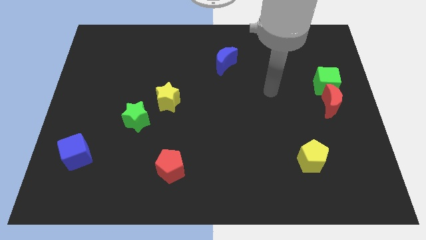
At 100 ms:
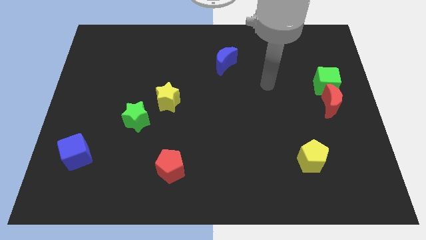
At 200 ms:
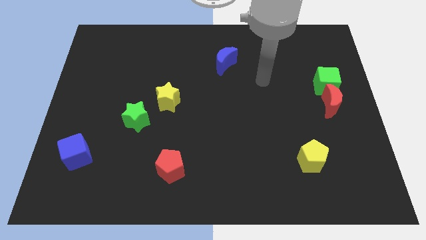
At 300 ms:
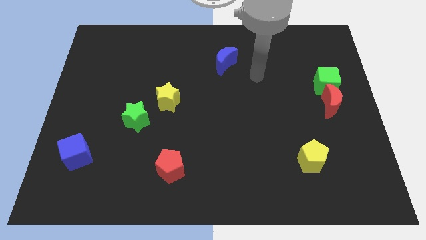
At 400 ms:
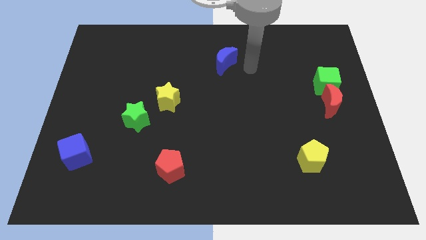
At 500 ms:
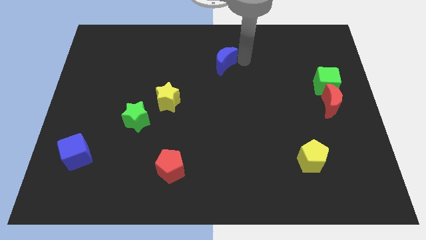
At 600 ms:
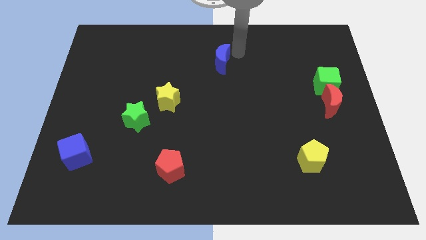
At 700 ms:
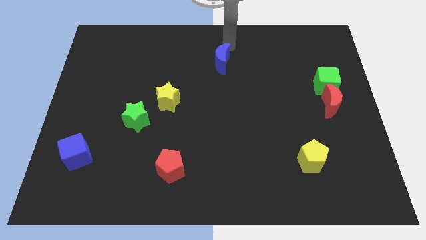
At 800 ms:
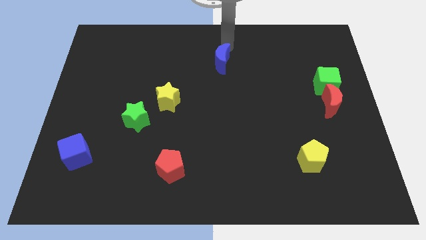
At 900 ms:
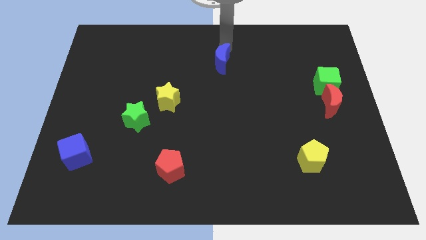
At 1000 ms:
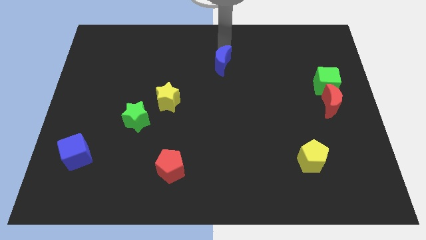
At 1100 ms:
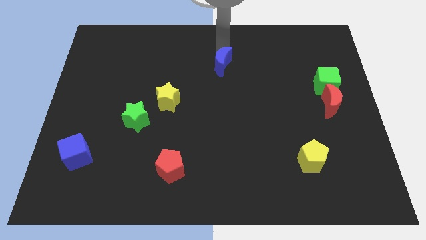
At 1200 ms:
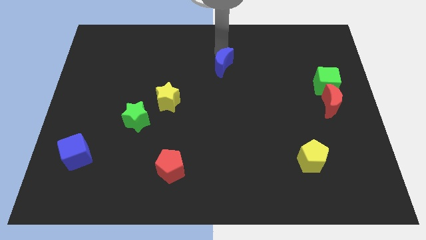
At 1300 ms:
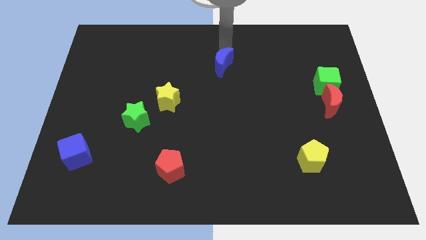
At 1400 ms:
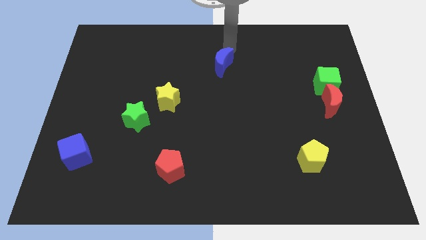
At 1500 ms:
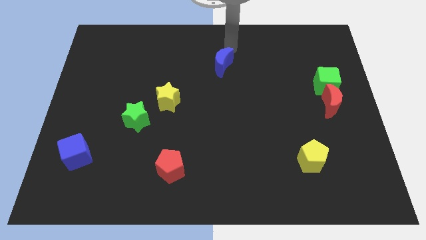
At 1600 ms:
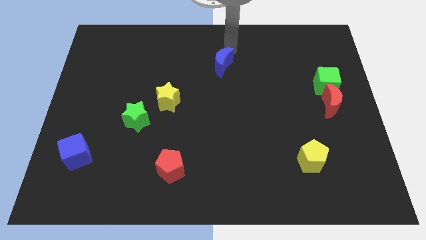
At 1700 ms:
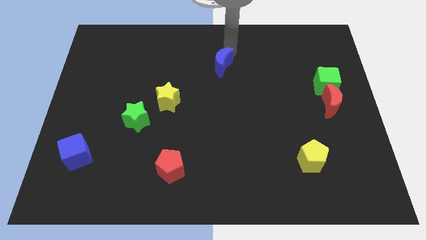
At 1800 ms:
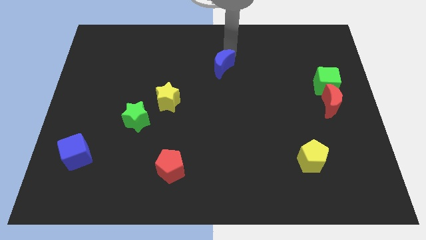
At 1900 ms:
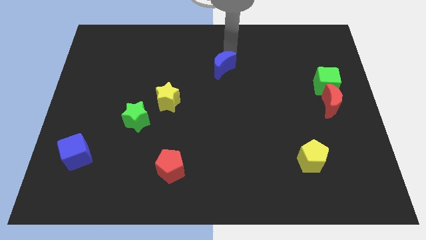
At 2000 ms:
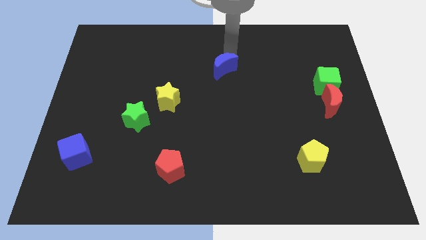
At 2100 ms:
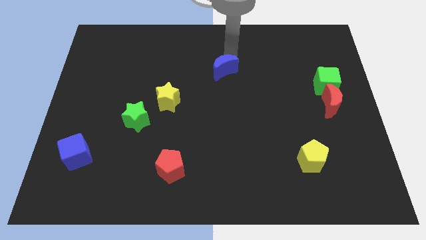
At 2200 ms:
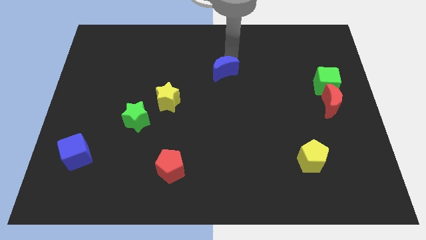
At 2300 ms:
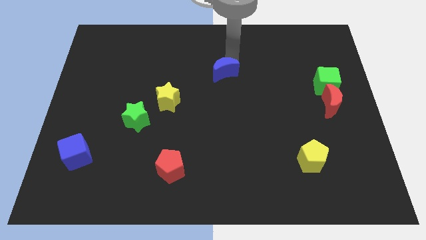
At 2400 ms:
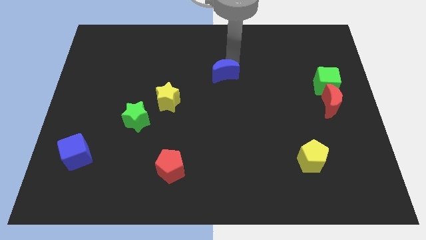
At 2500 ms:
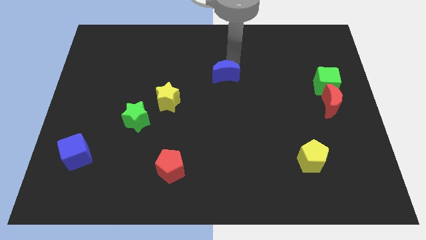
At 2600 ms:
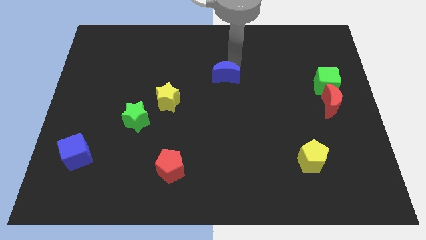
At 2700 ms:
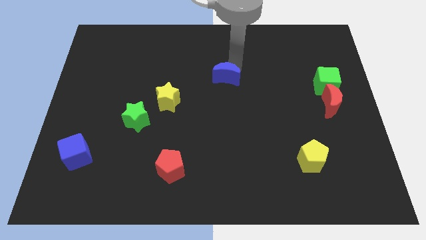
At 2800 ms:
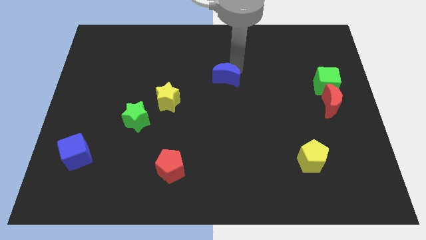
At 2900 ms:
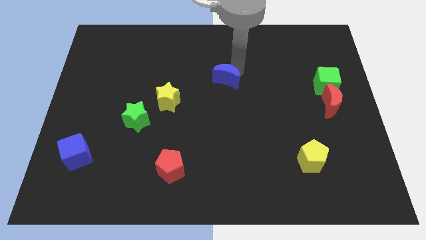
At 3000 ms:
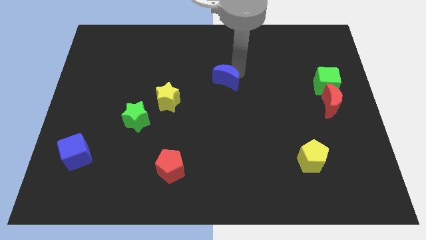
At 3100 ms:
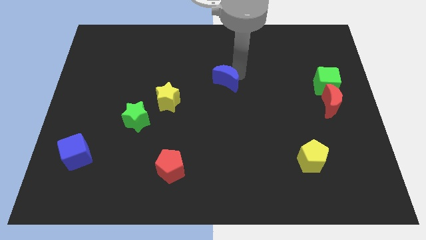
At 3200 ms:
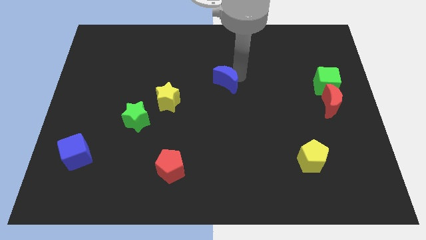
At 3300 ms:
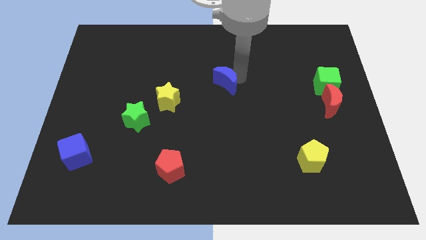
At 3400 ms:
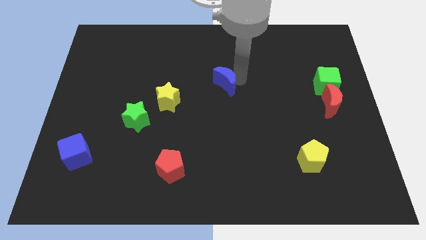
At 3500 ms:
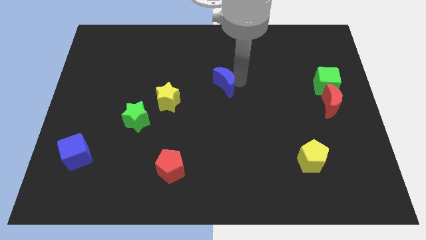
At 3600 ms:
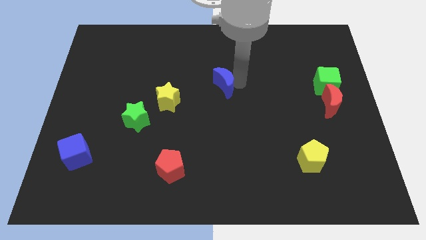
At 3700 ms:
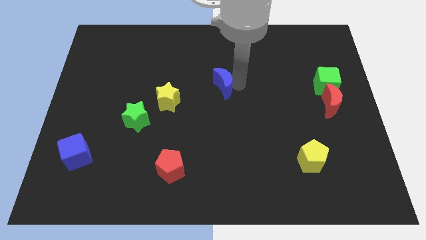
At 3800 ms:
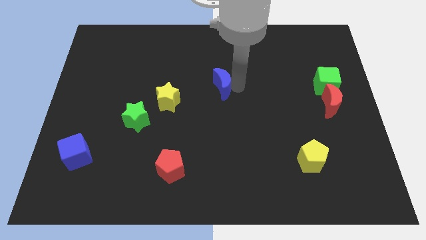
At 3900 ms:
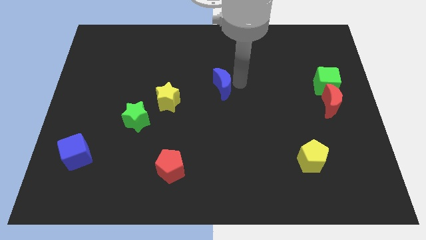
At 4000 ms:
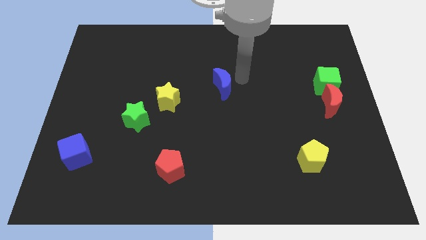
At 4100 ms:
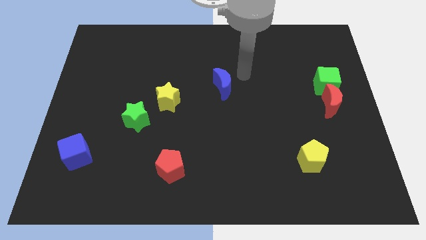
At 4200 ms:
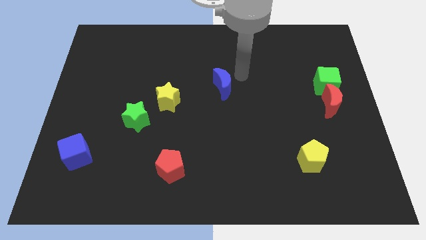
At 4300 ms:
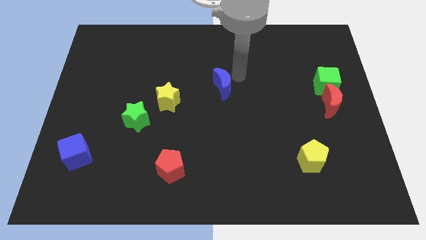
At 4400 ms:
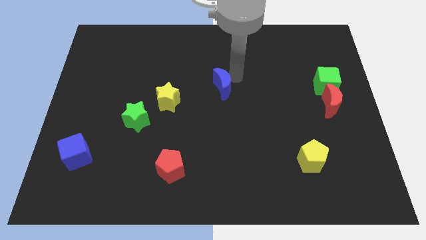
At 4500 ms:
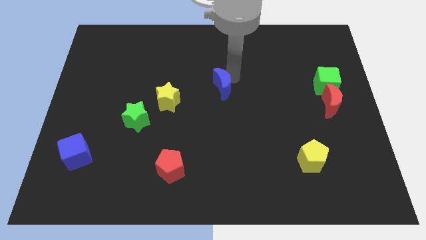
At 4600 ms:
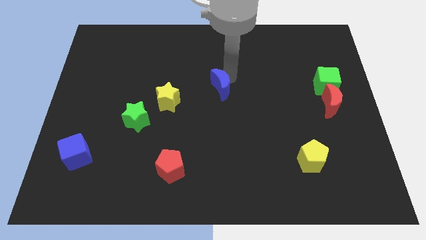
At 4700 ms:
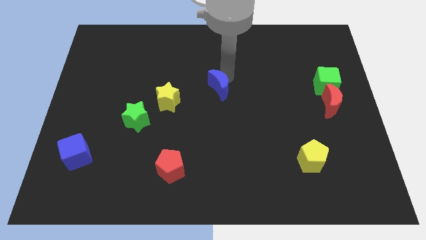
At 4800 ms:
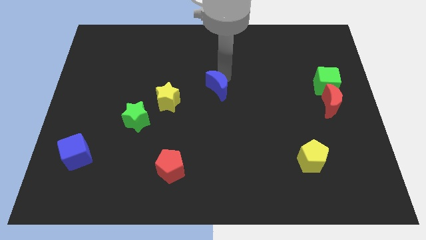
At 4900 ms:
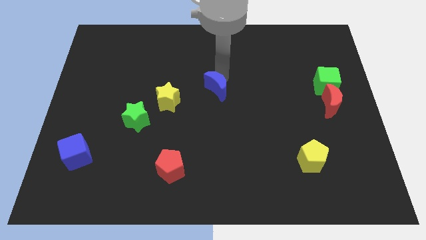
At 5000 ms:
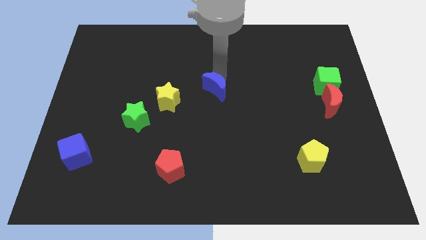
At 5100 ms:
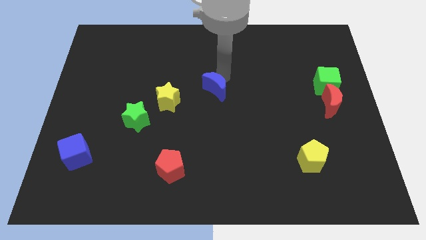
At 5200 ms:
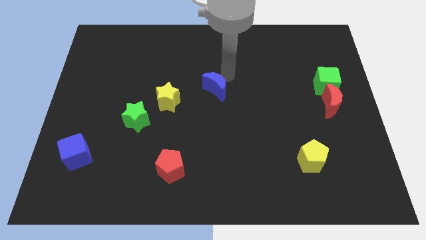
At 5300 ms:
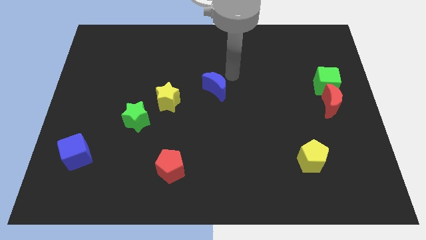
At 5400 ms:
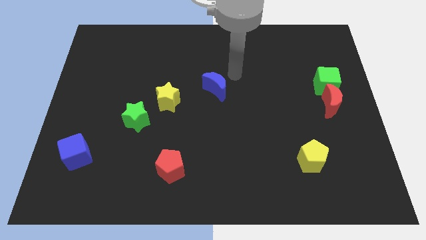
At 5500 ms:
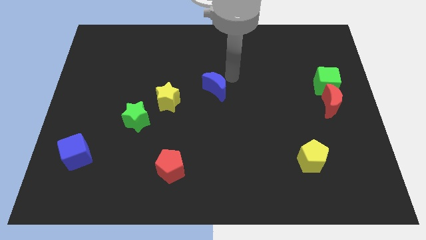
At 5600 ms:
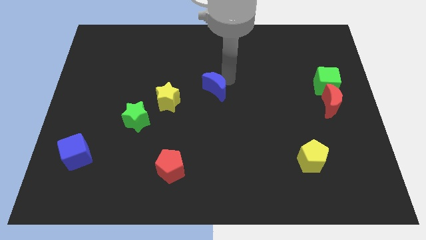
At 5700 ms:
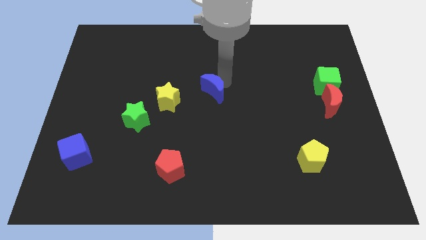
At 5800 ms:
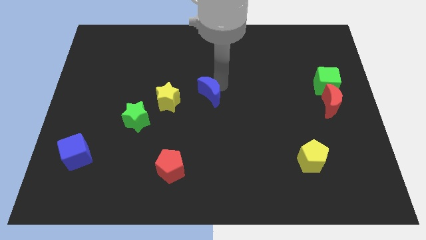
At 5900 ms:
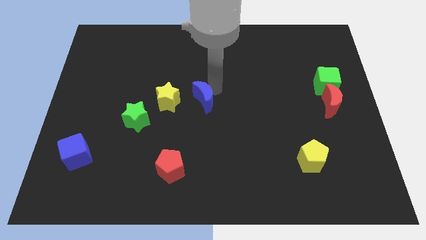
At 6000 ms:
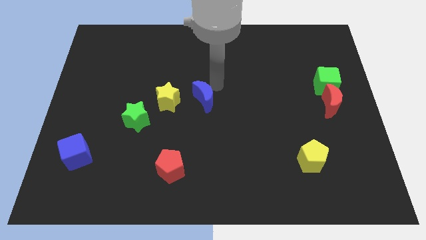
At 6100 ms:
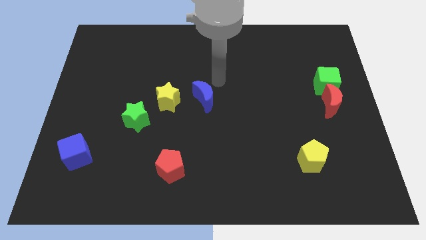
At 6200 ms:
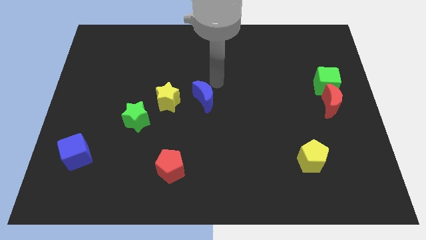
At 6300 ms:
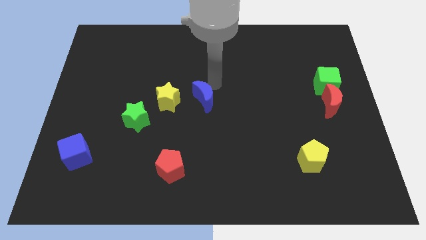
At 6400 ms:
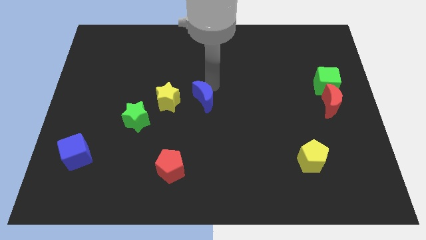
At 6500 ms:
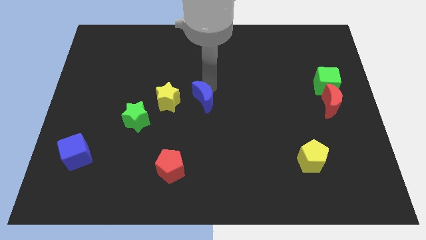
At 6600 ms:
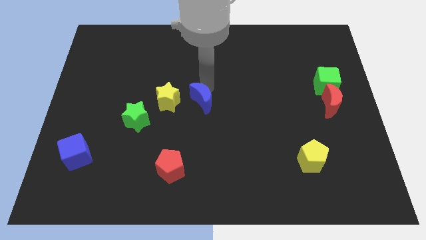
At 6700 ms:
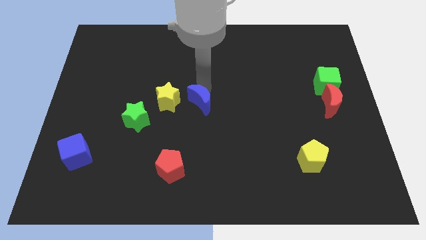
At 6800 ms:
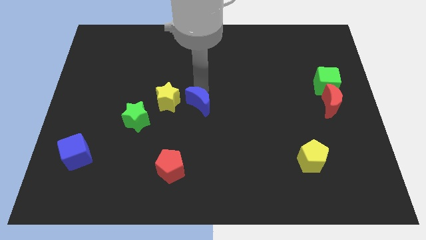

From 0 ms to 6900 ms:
move the blue moon to the bottom right side of the yellow star

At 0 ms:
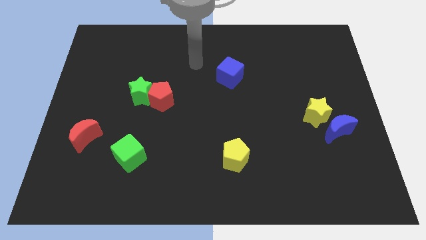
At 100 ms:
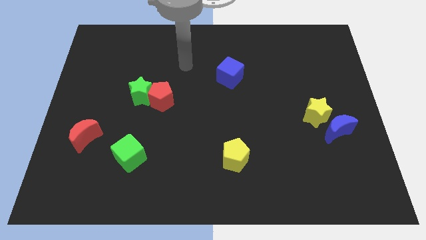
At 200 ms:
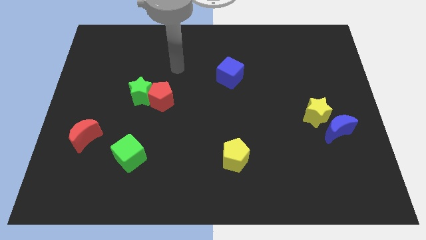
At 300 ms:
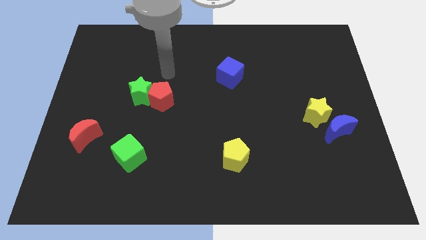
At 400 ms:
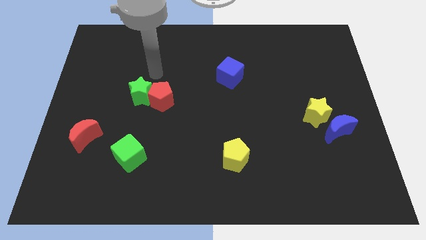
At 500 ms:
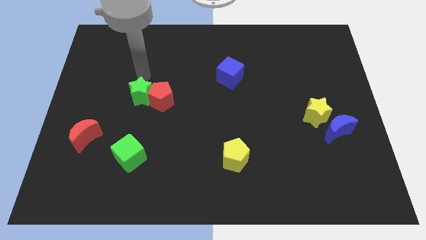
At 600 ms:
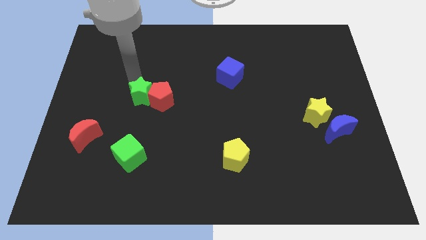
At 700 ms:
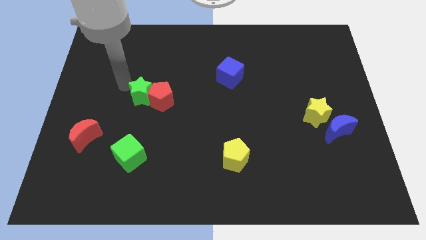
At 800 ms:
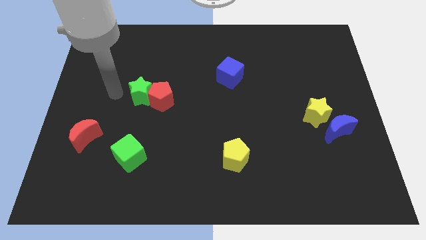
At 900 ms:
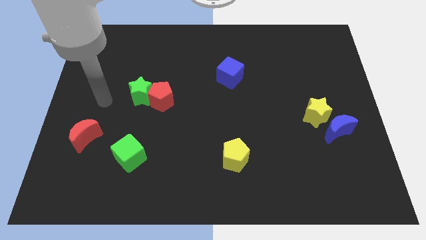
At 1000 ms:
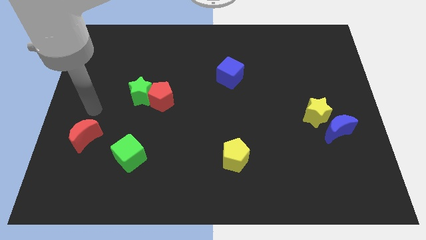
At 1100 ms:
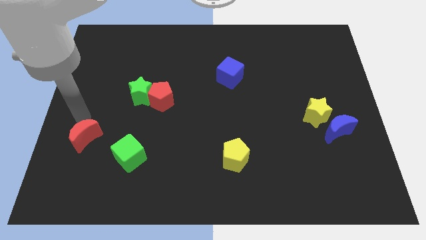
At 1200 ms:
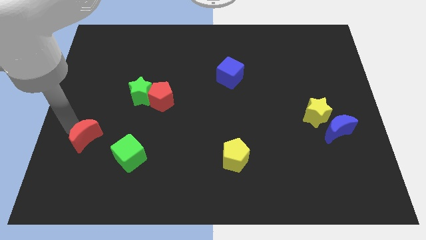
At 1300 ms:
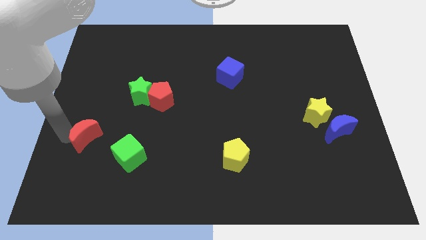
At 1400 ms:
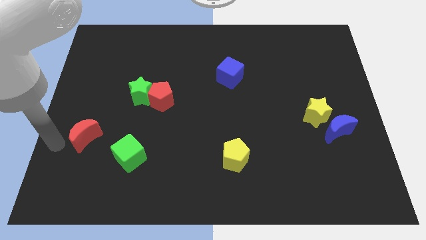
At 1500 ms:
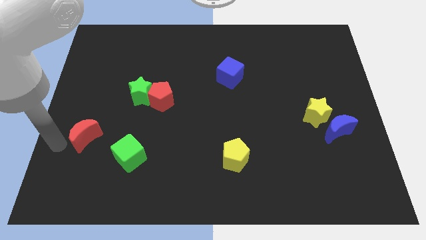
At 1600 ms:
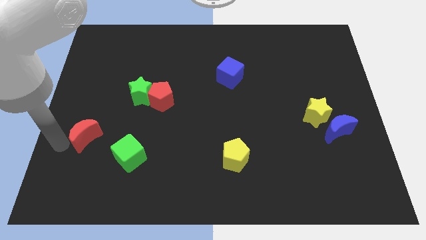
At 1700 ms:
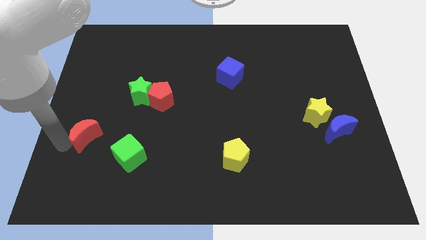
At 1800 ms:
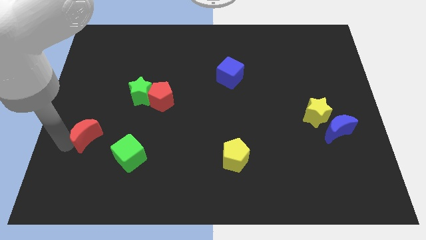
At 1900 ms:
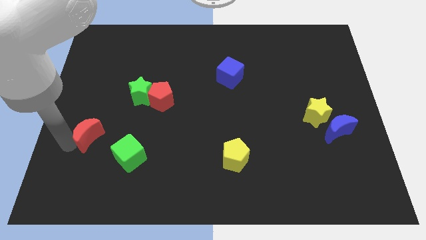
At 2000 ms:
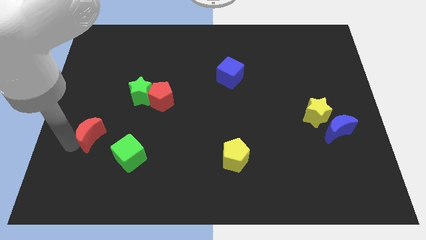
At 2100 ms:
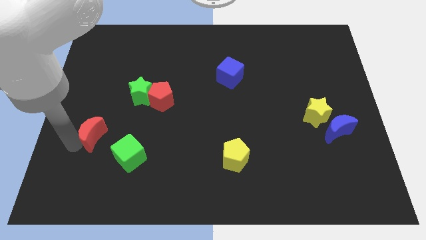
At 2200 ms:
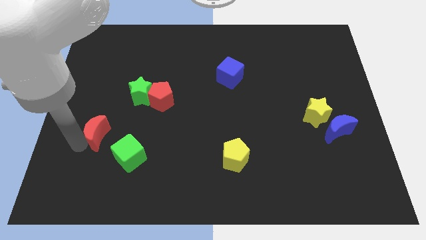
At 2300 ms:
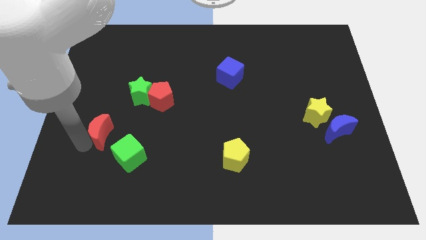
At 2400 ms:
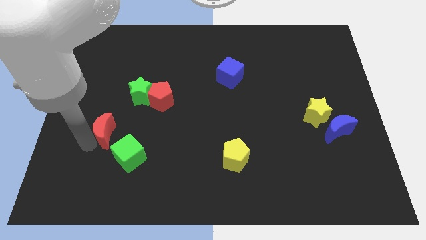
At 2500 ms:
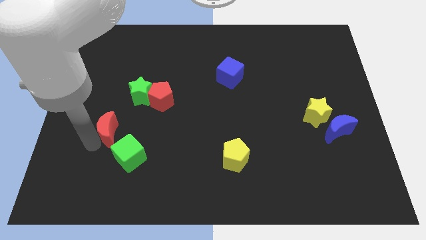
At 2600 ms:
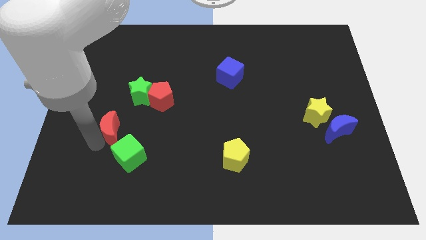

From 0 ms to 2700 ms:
put the red moon to the top side of the green cube
